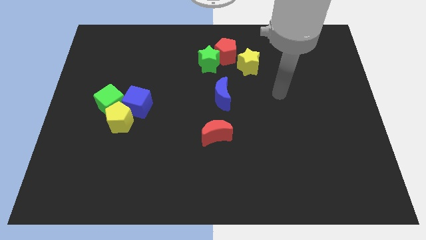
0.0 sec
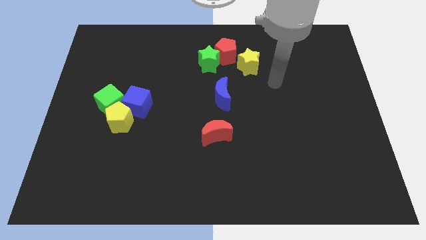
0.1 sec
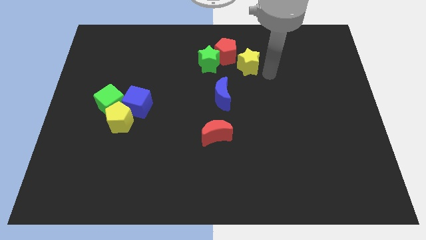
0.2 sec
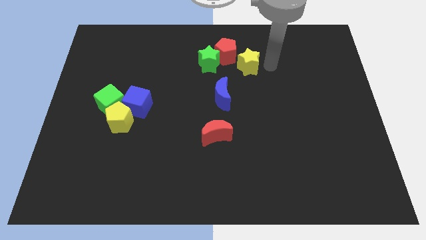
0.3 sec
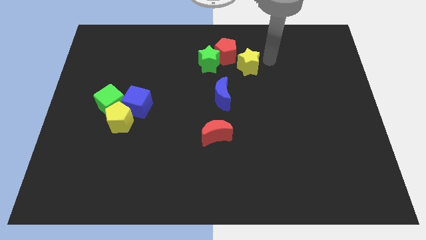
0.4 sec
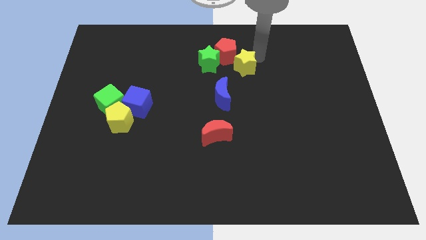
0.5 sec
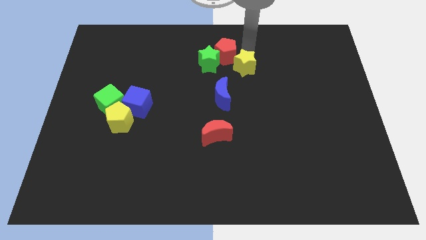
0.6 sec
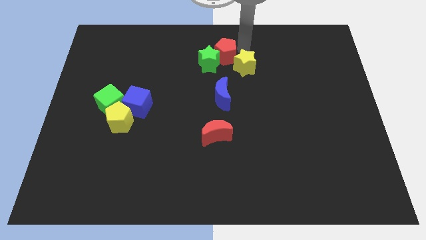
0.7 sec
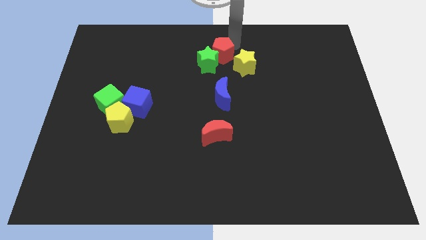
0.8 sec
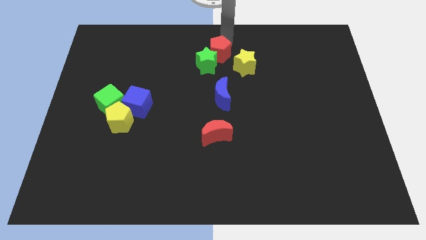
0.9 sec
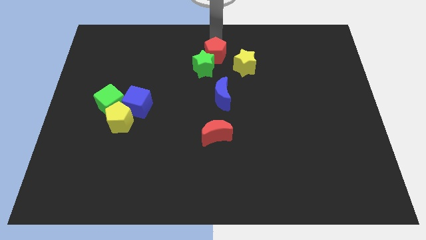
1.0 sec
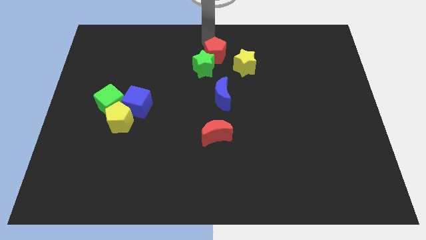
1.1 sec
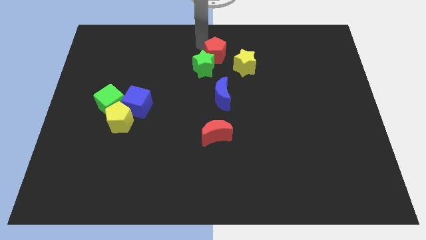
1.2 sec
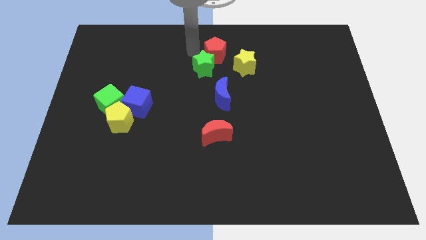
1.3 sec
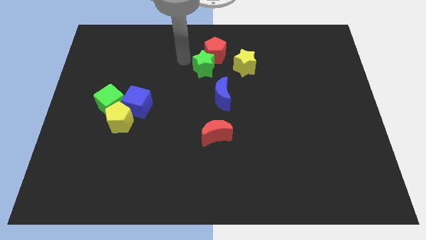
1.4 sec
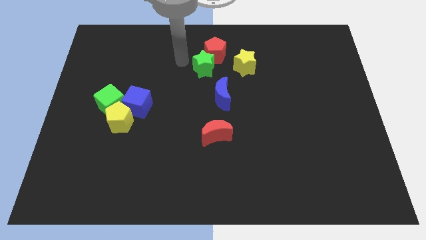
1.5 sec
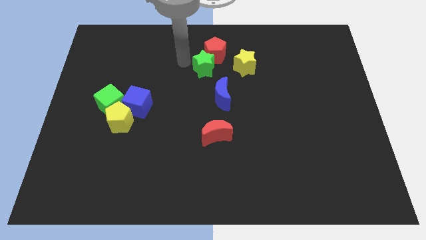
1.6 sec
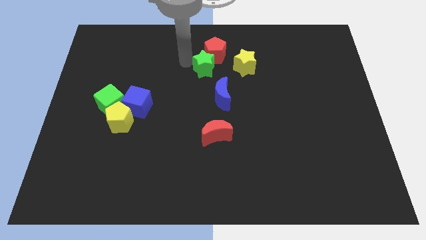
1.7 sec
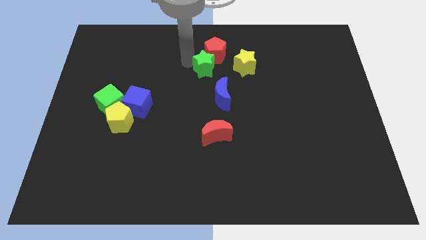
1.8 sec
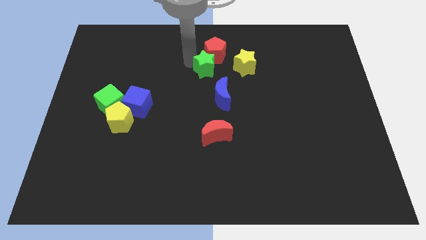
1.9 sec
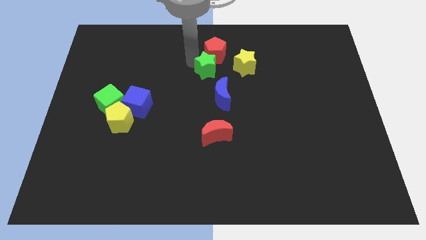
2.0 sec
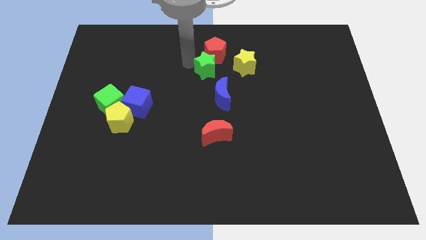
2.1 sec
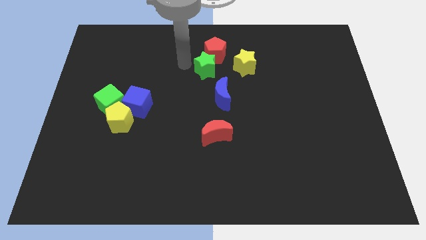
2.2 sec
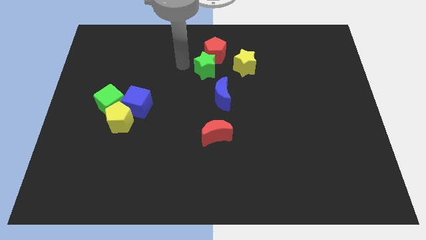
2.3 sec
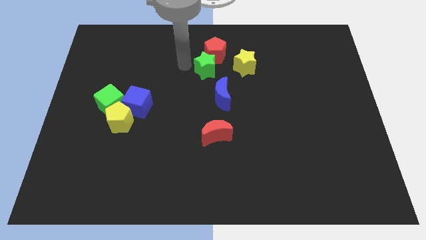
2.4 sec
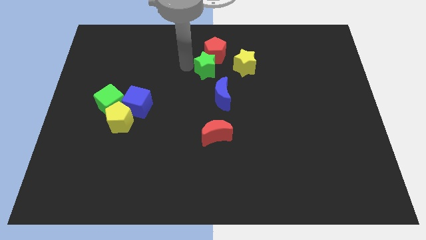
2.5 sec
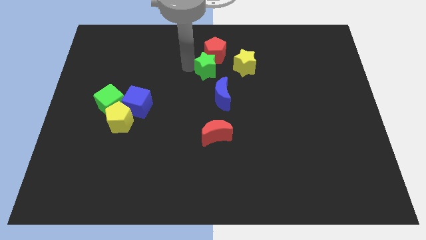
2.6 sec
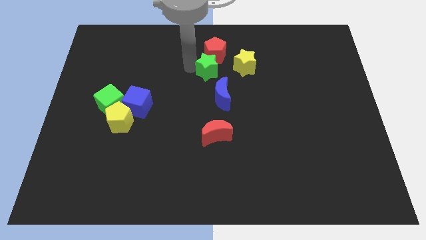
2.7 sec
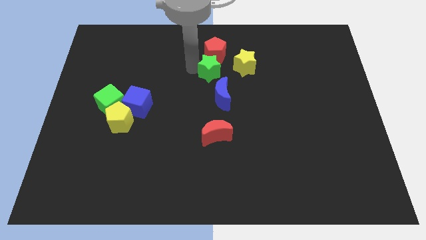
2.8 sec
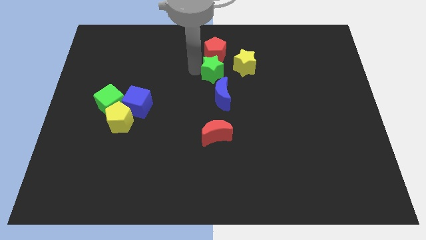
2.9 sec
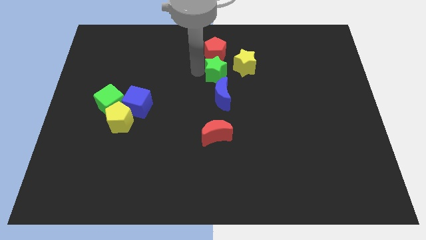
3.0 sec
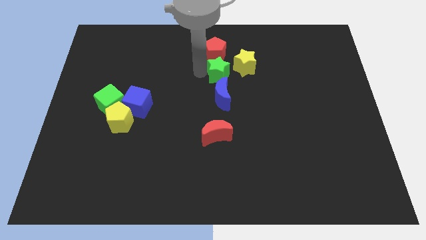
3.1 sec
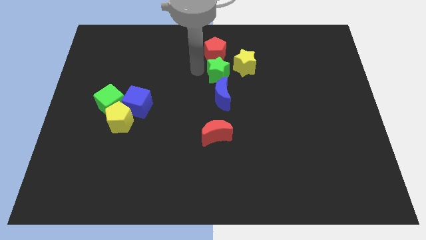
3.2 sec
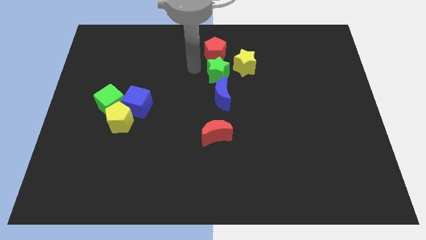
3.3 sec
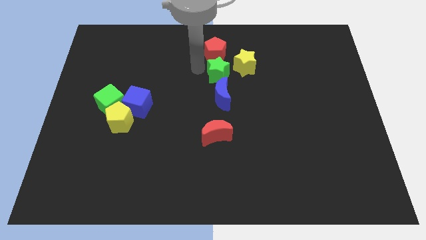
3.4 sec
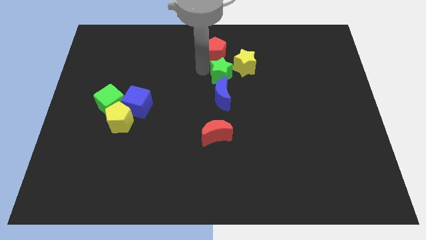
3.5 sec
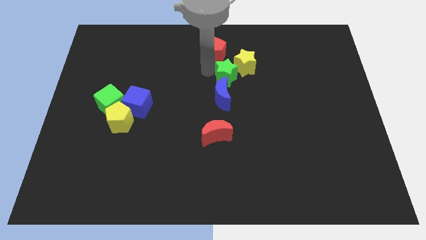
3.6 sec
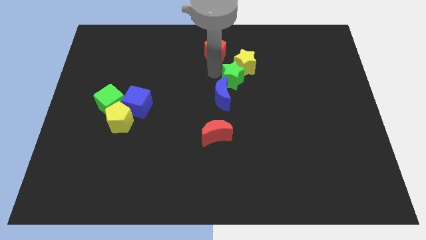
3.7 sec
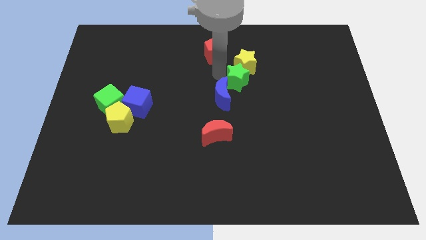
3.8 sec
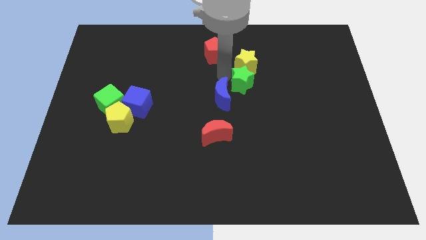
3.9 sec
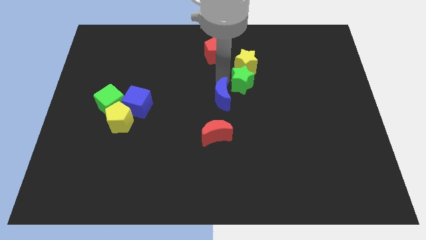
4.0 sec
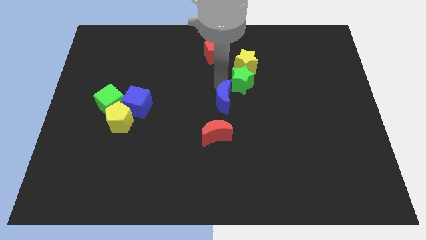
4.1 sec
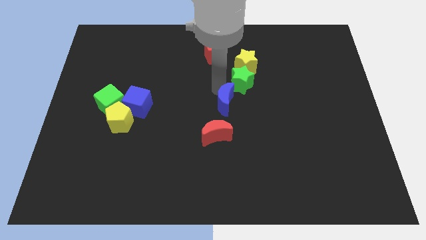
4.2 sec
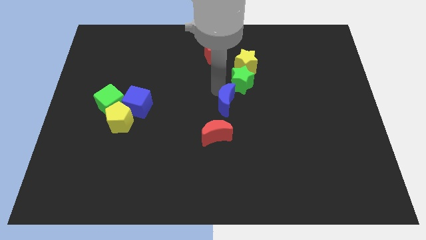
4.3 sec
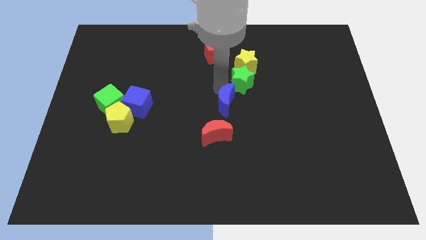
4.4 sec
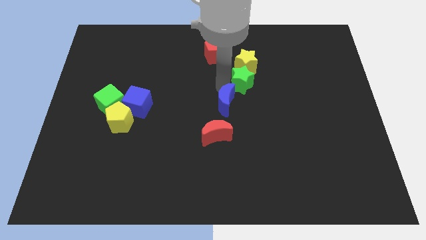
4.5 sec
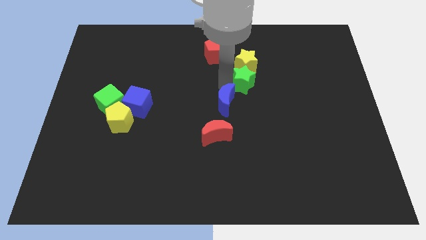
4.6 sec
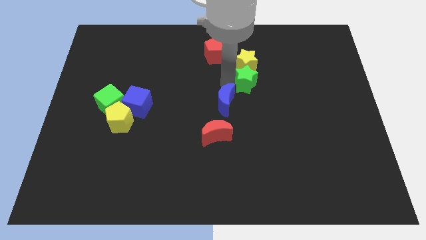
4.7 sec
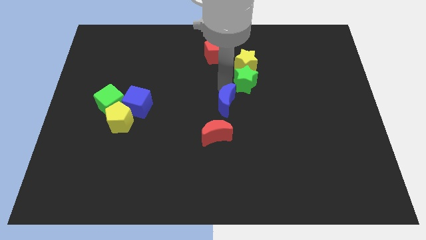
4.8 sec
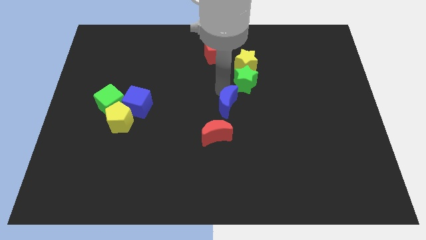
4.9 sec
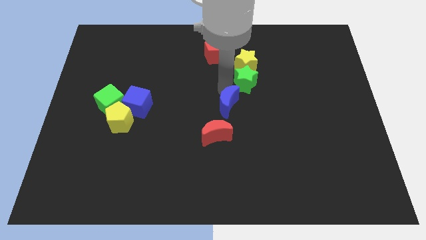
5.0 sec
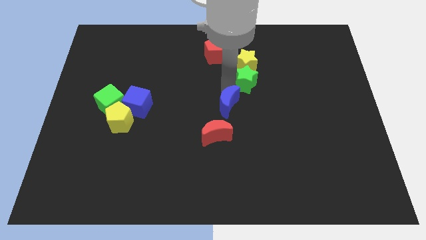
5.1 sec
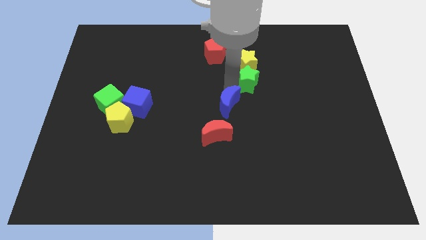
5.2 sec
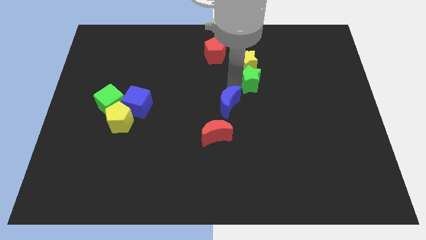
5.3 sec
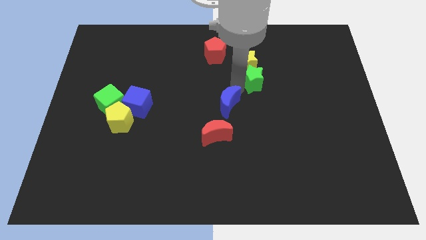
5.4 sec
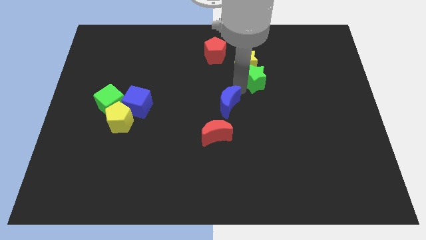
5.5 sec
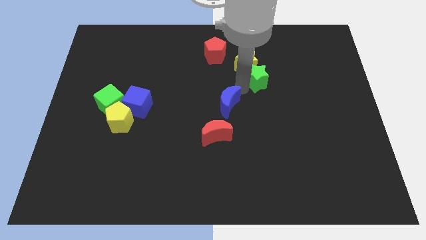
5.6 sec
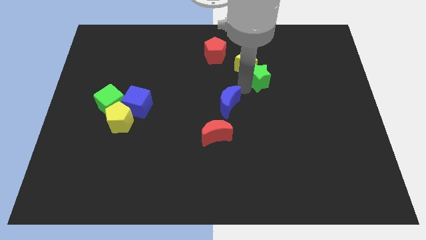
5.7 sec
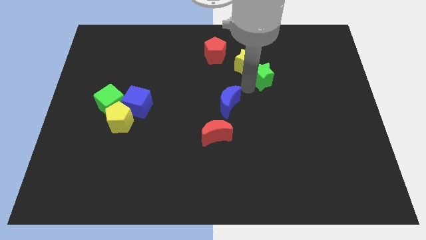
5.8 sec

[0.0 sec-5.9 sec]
slide the green star right of the yellow star

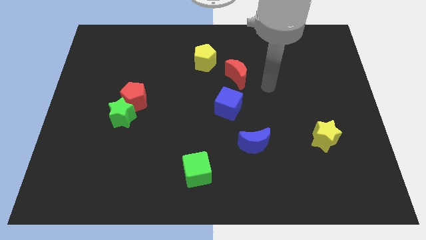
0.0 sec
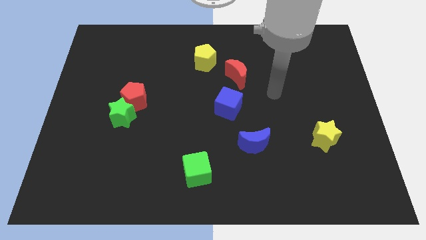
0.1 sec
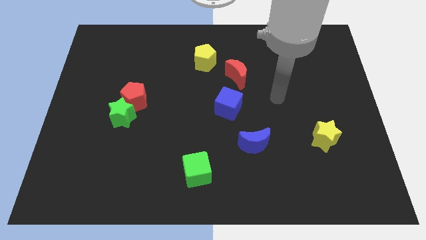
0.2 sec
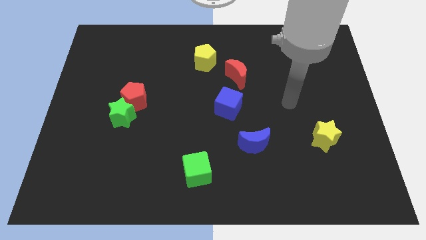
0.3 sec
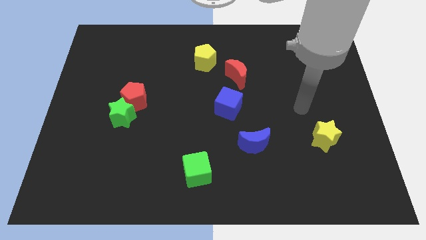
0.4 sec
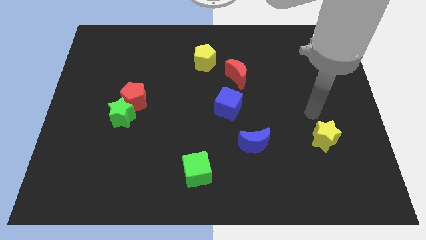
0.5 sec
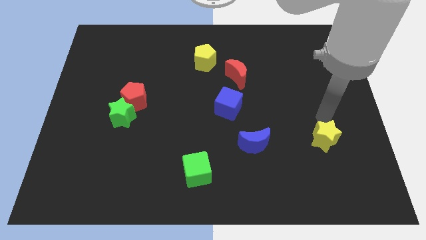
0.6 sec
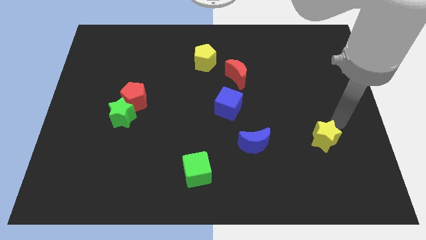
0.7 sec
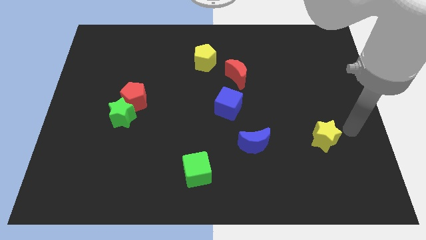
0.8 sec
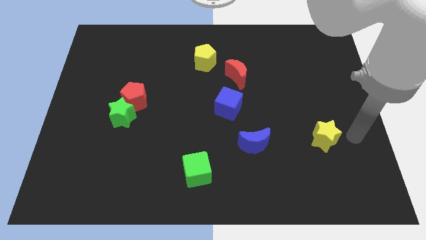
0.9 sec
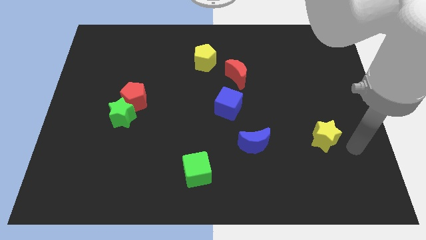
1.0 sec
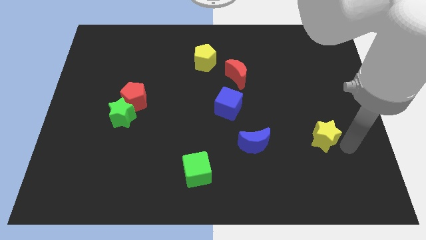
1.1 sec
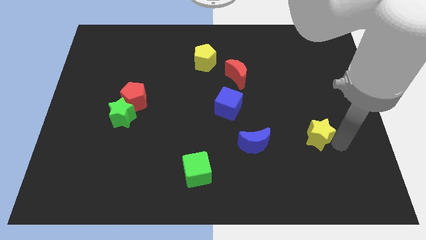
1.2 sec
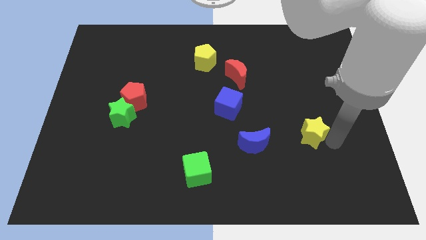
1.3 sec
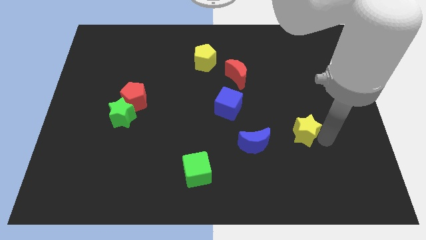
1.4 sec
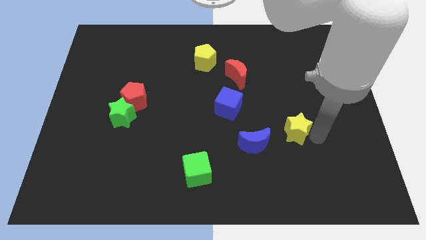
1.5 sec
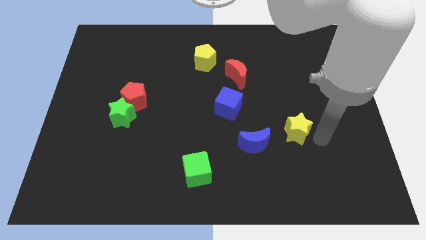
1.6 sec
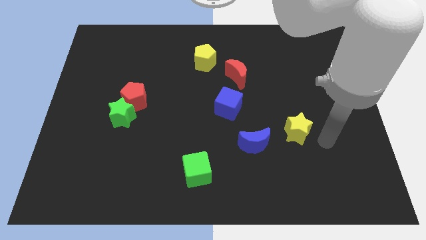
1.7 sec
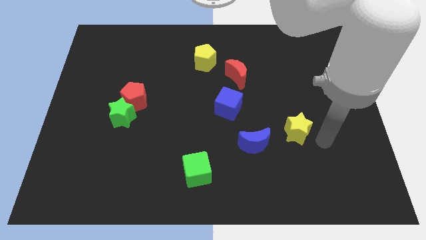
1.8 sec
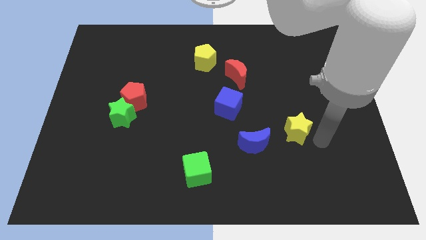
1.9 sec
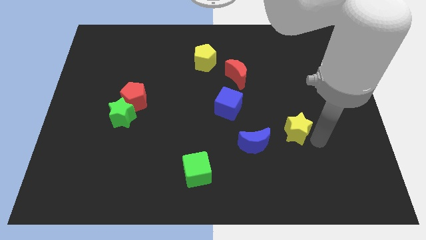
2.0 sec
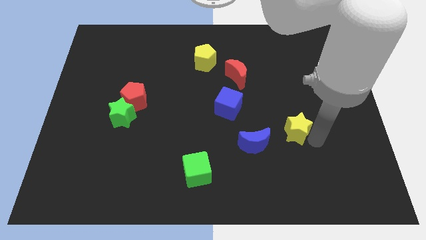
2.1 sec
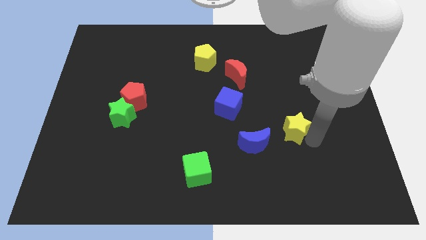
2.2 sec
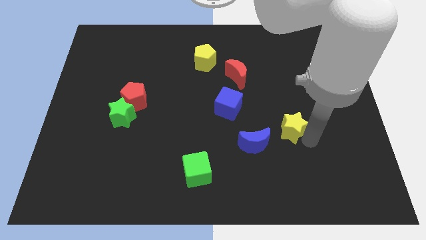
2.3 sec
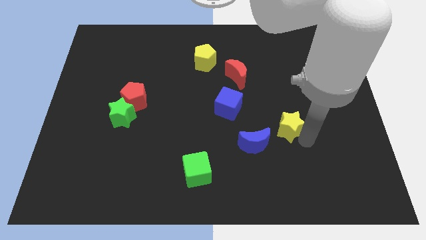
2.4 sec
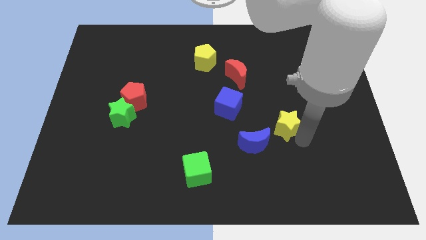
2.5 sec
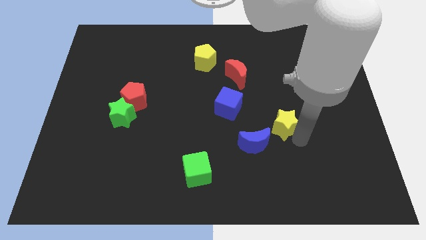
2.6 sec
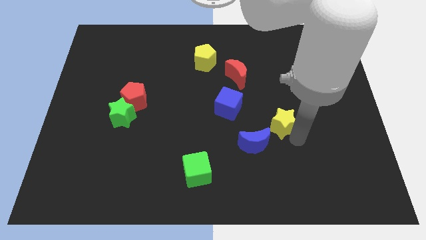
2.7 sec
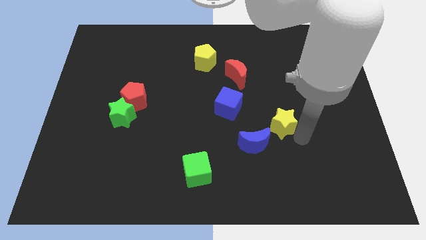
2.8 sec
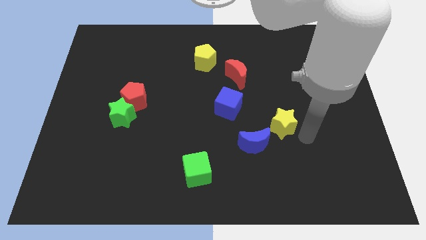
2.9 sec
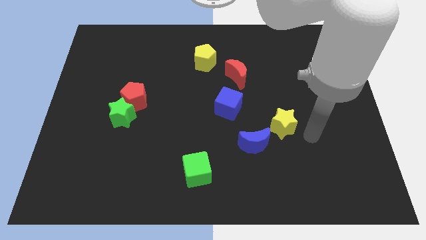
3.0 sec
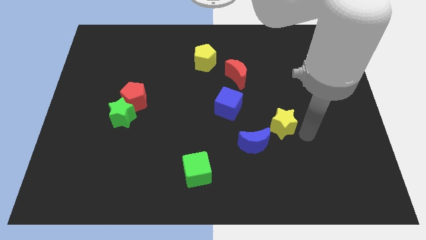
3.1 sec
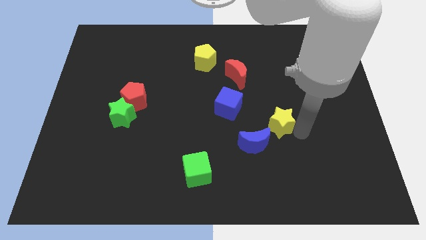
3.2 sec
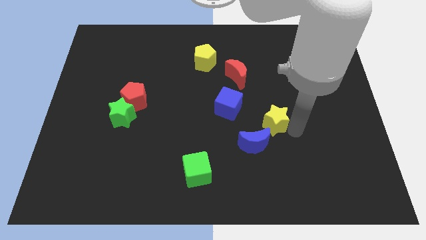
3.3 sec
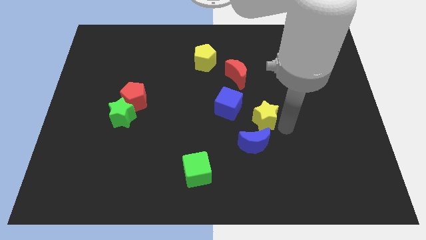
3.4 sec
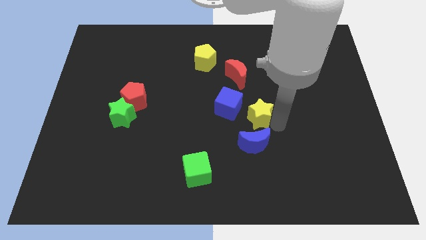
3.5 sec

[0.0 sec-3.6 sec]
move the yellow star to the bottom side of the red moon
